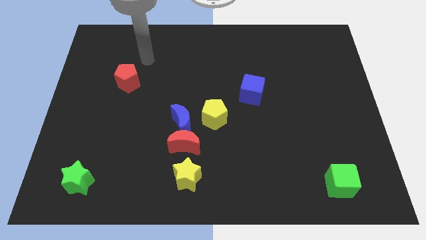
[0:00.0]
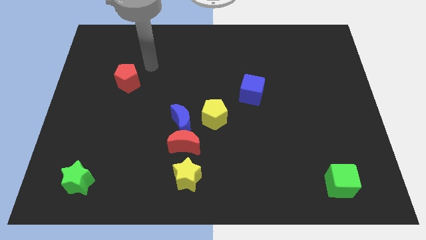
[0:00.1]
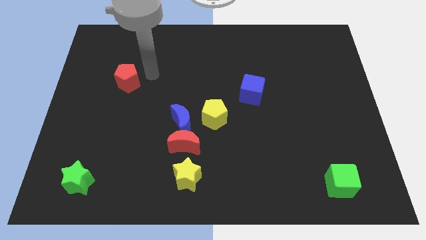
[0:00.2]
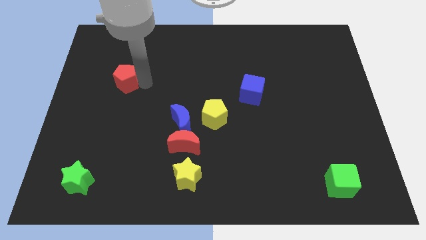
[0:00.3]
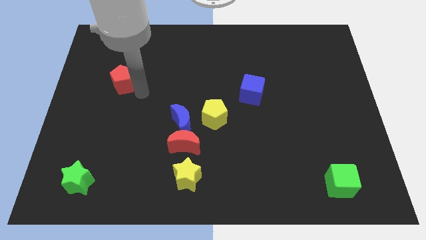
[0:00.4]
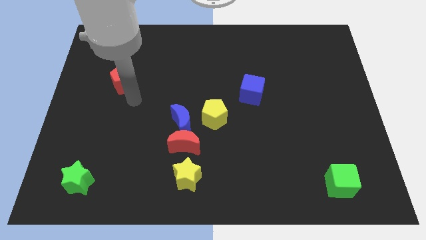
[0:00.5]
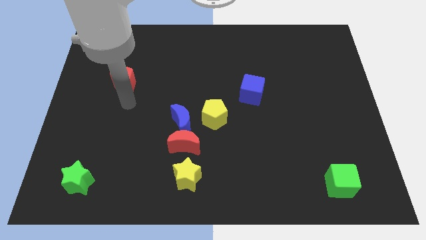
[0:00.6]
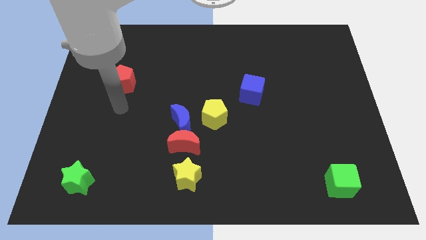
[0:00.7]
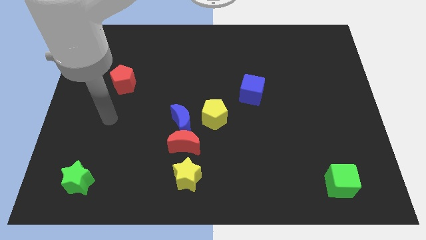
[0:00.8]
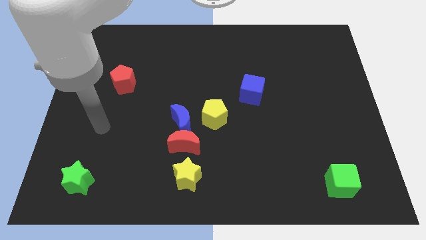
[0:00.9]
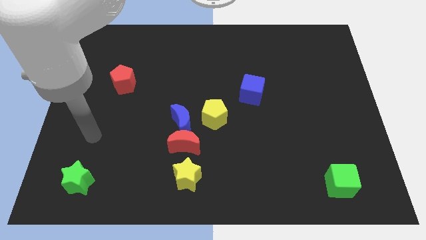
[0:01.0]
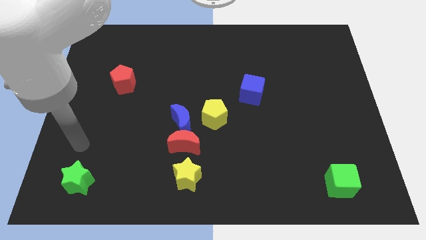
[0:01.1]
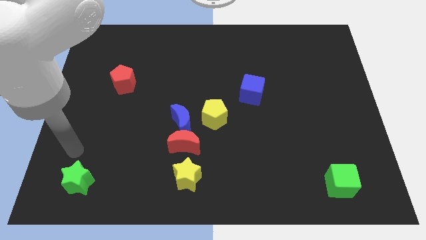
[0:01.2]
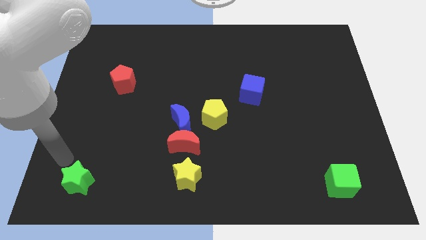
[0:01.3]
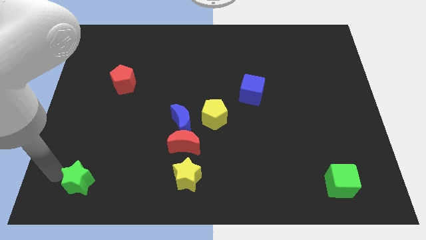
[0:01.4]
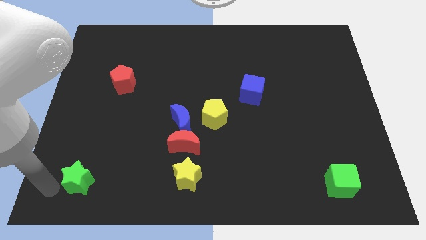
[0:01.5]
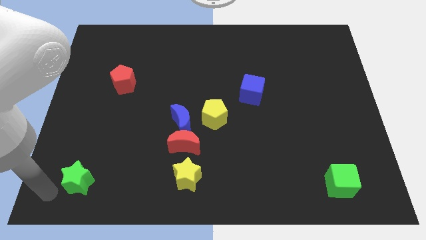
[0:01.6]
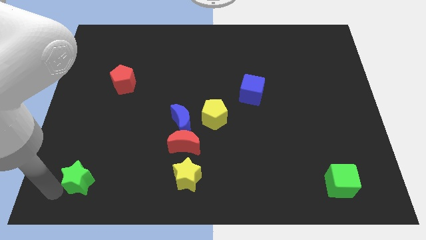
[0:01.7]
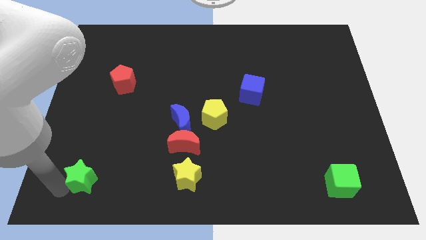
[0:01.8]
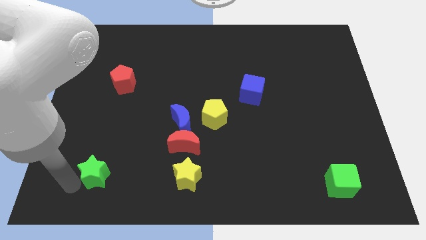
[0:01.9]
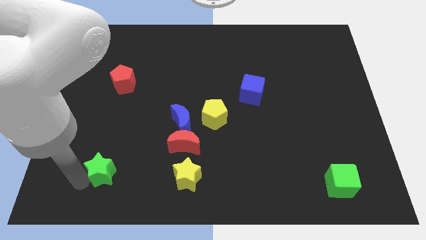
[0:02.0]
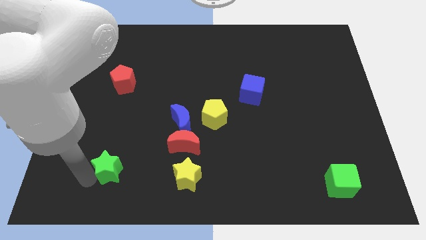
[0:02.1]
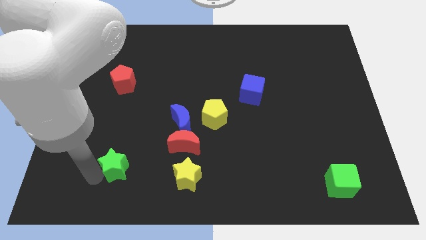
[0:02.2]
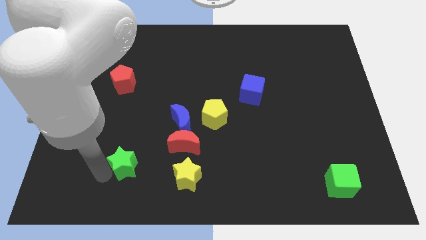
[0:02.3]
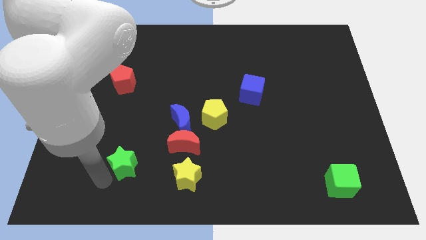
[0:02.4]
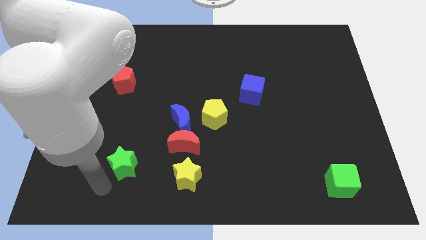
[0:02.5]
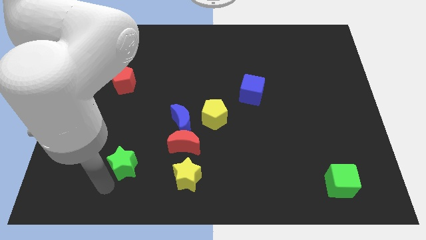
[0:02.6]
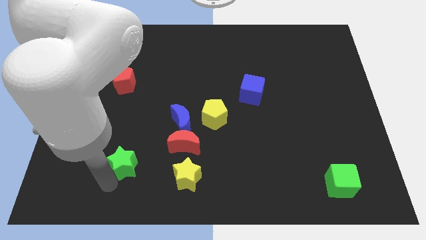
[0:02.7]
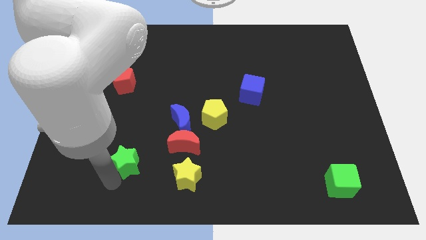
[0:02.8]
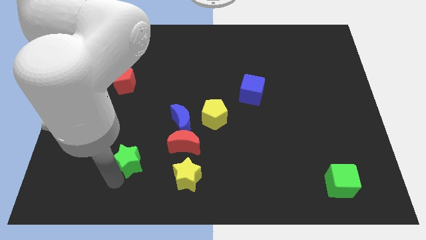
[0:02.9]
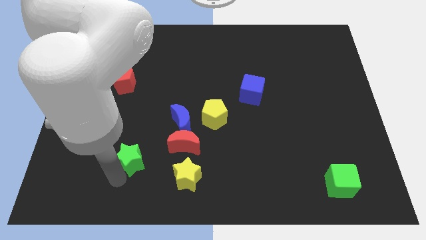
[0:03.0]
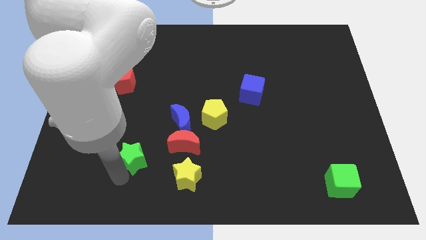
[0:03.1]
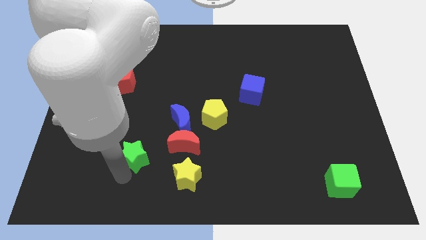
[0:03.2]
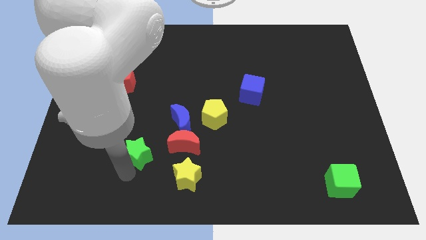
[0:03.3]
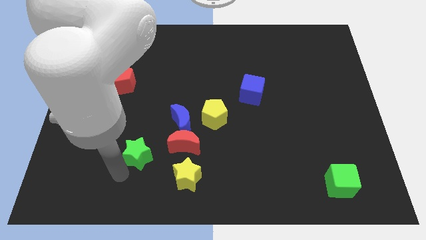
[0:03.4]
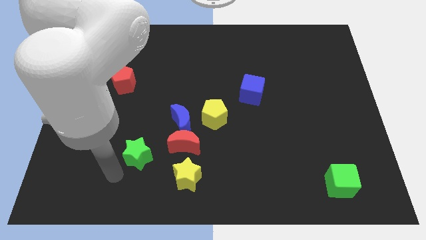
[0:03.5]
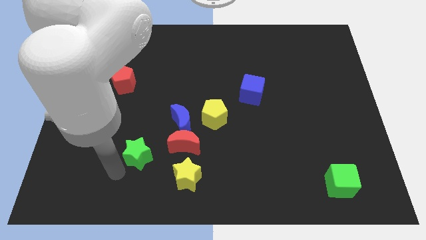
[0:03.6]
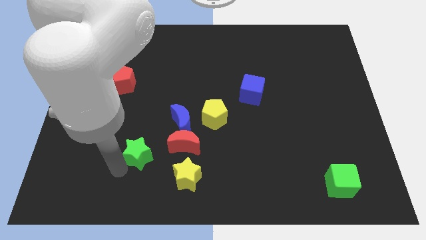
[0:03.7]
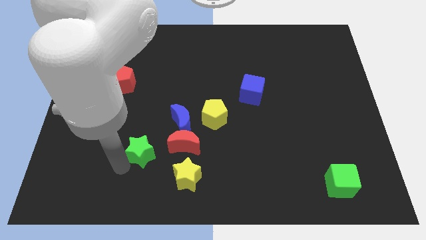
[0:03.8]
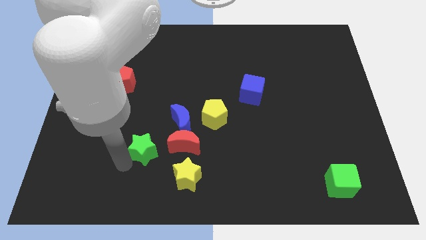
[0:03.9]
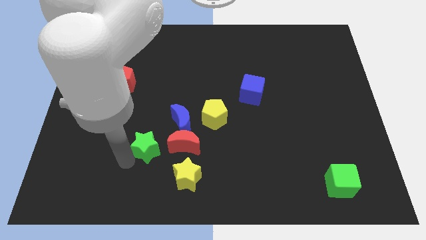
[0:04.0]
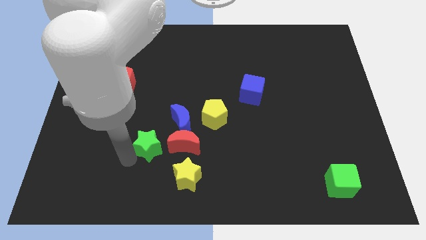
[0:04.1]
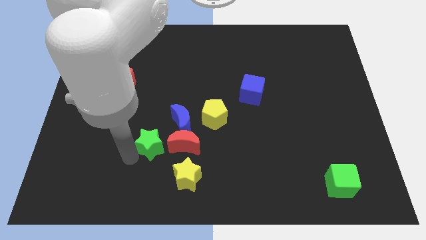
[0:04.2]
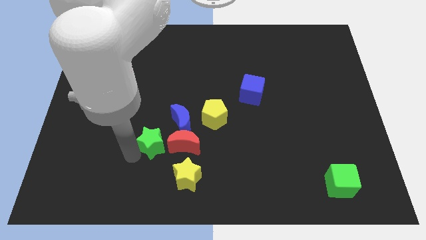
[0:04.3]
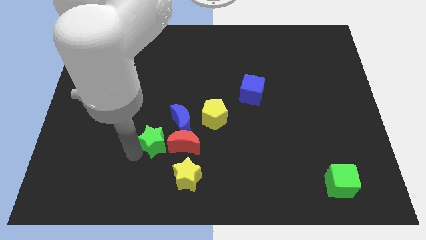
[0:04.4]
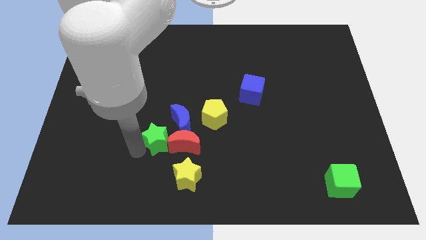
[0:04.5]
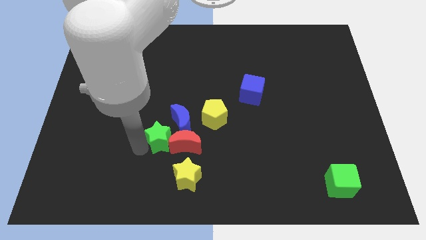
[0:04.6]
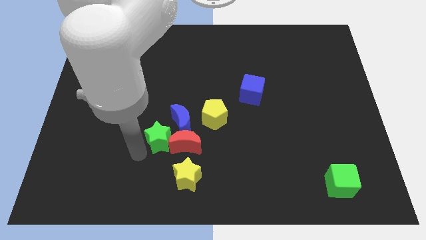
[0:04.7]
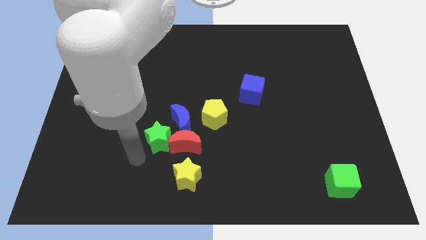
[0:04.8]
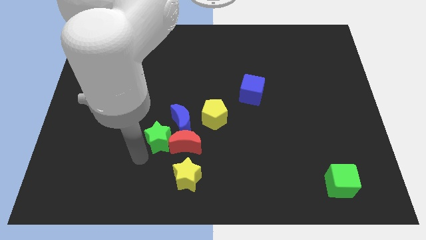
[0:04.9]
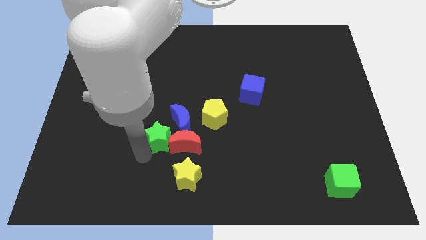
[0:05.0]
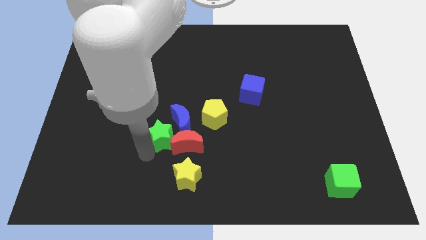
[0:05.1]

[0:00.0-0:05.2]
slide the green star close to the blue moon

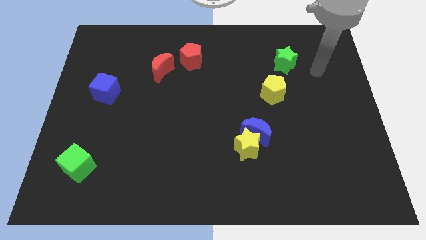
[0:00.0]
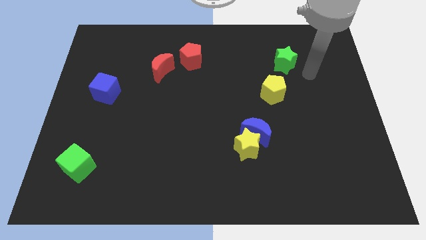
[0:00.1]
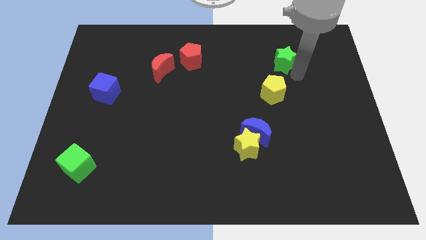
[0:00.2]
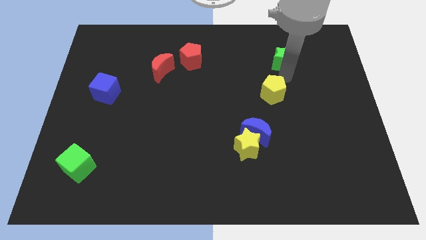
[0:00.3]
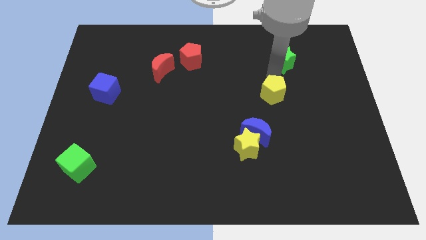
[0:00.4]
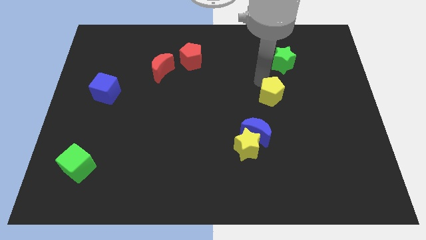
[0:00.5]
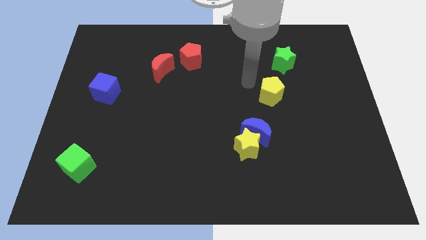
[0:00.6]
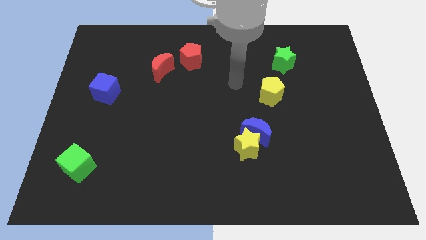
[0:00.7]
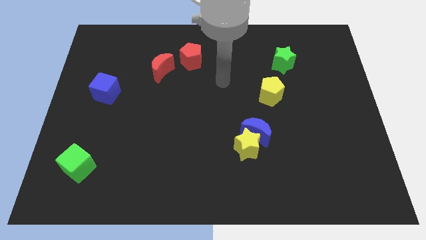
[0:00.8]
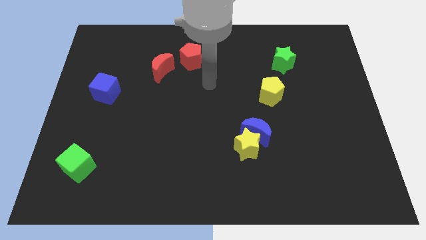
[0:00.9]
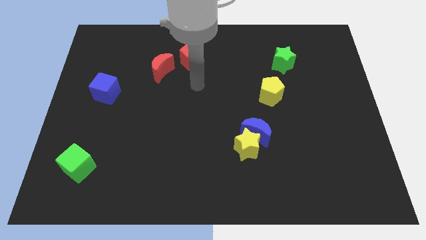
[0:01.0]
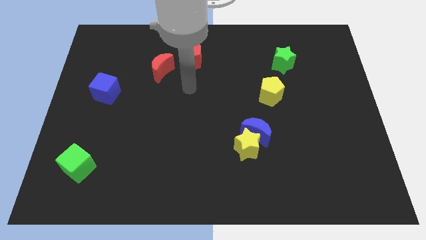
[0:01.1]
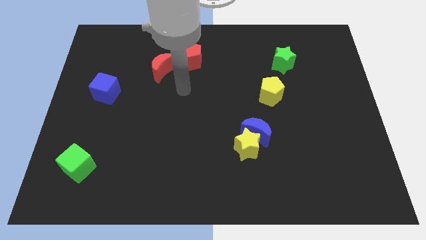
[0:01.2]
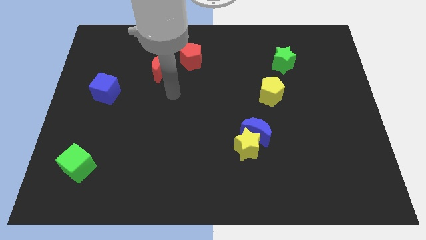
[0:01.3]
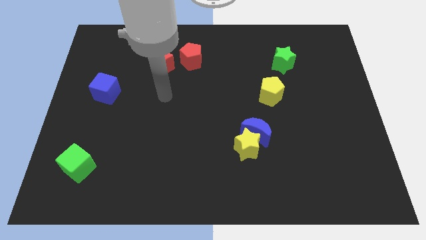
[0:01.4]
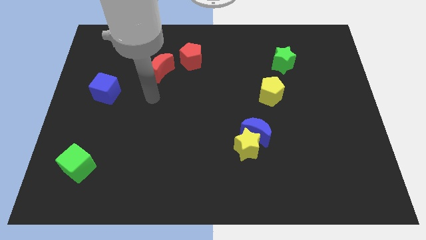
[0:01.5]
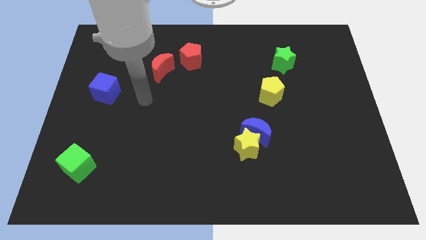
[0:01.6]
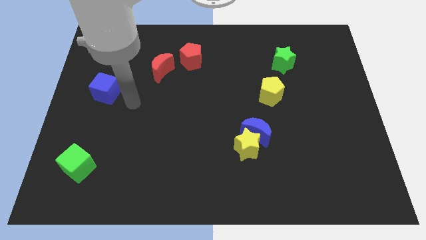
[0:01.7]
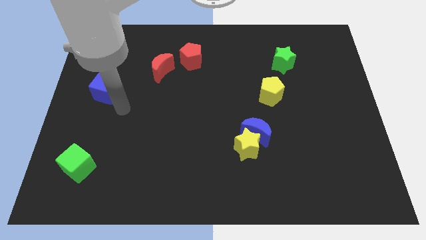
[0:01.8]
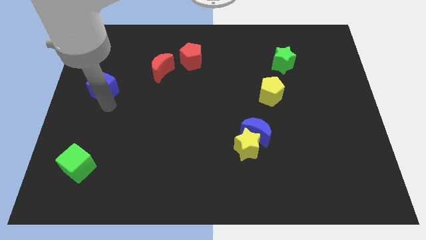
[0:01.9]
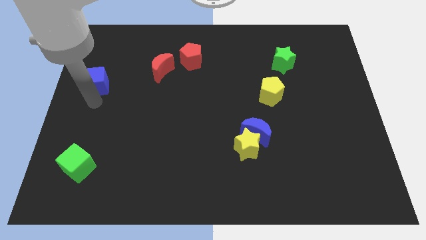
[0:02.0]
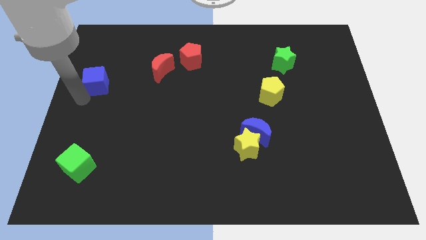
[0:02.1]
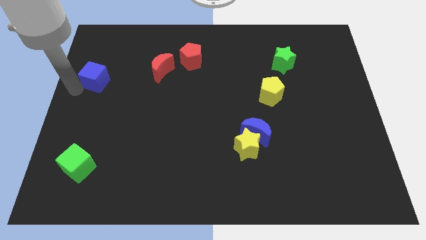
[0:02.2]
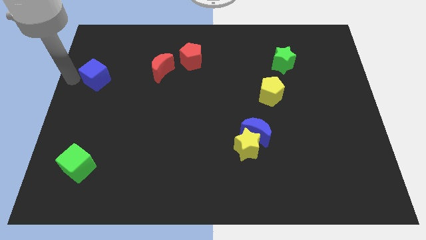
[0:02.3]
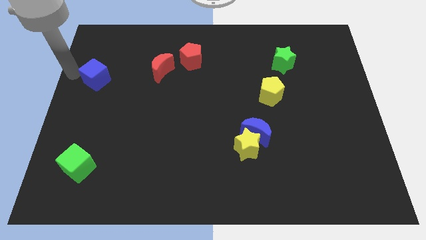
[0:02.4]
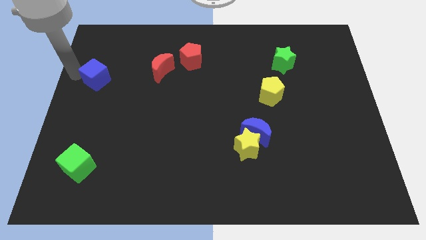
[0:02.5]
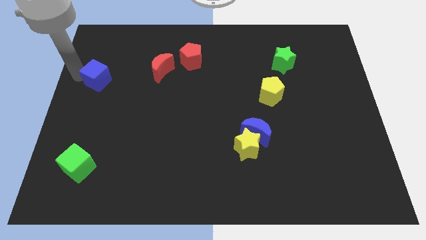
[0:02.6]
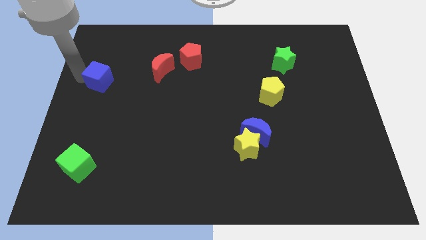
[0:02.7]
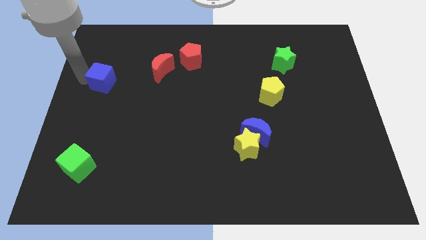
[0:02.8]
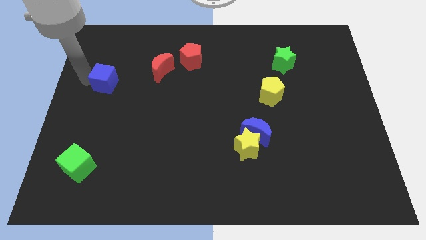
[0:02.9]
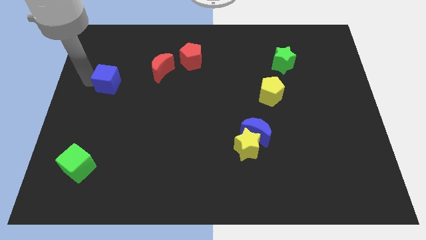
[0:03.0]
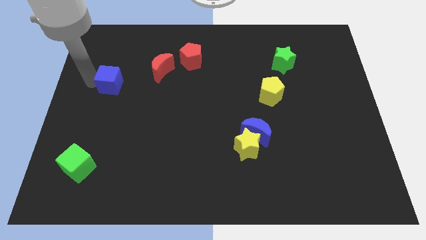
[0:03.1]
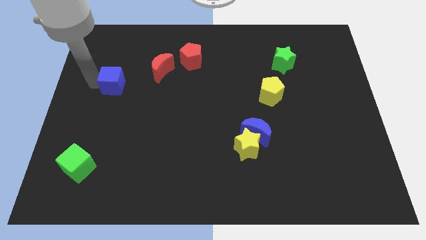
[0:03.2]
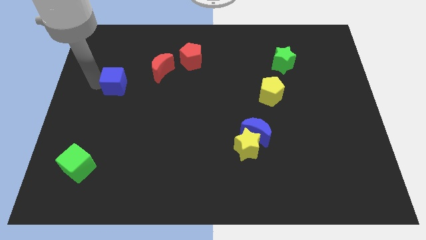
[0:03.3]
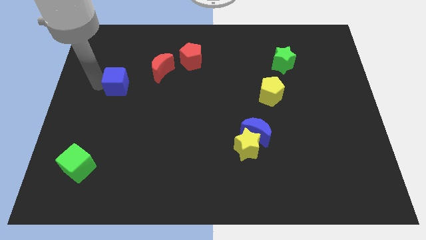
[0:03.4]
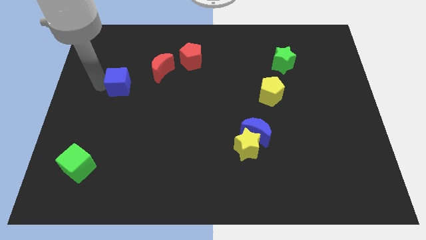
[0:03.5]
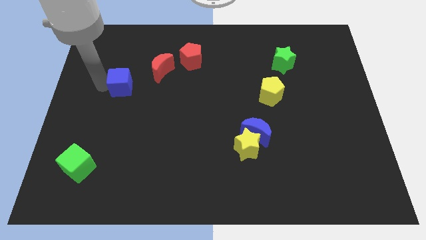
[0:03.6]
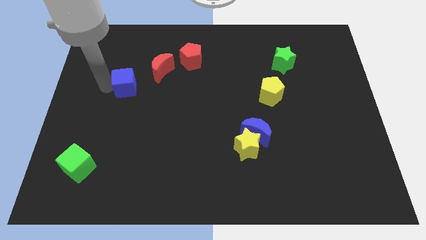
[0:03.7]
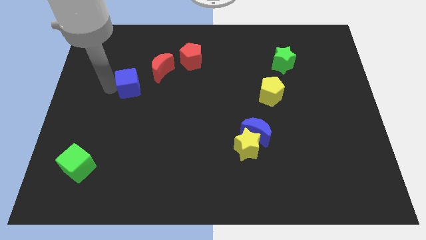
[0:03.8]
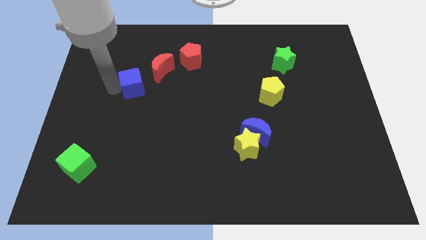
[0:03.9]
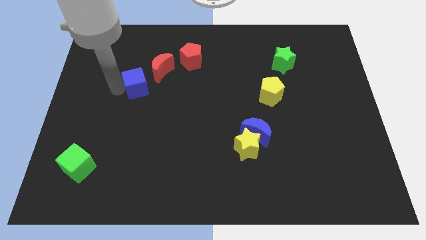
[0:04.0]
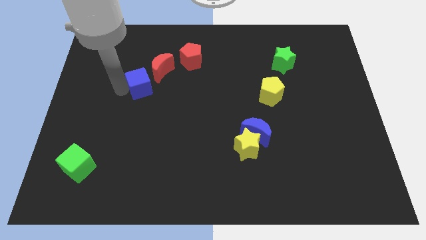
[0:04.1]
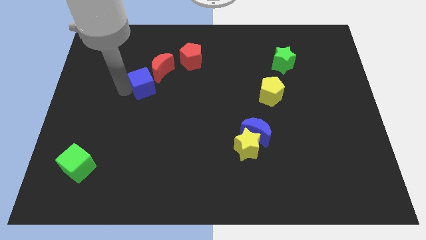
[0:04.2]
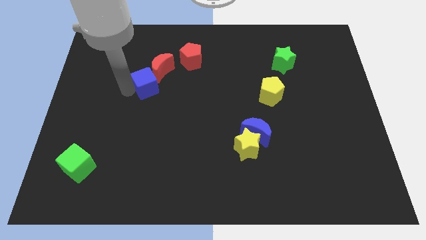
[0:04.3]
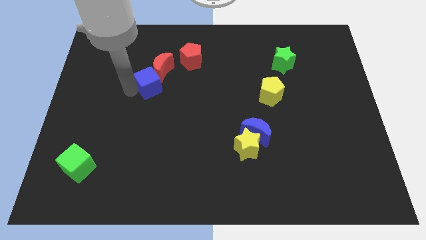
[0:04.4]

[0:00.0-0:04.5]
push the blue cube to the red moon
